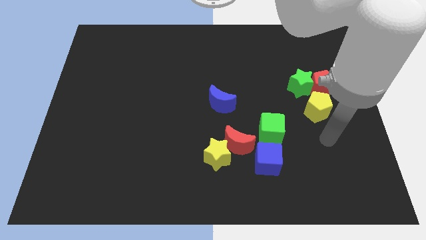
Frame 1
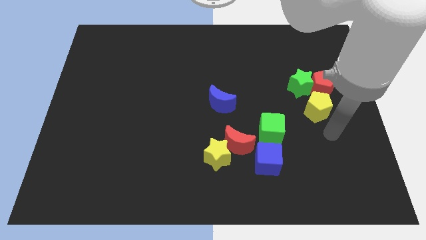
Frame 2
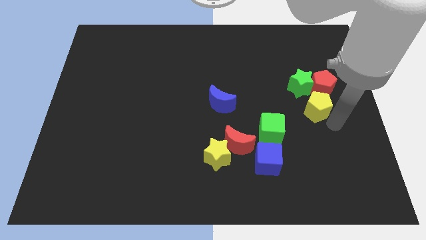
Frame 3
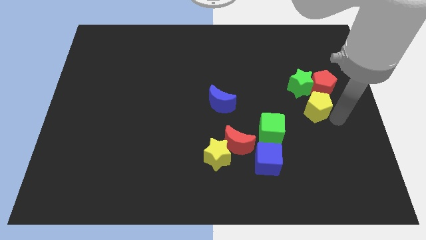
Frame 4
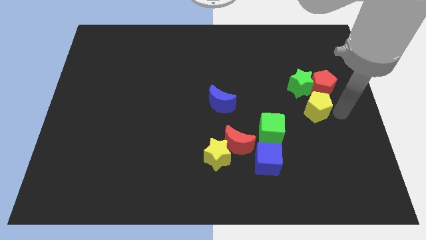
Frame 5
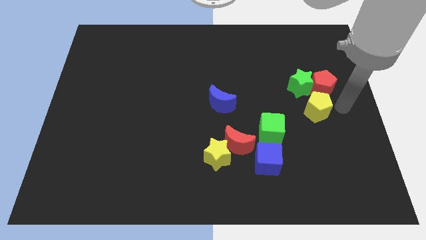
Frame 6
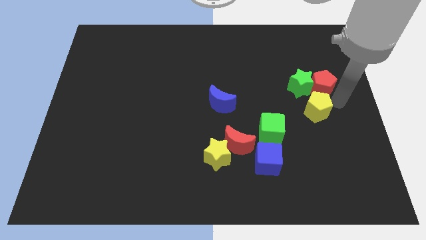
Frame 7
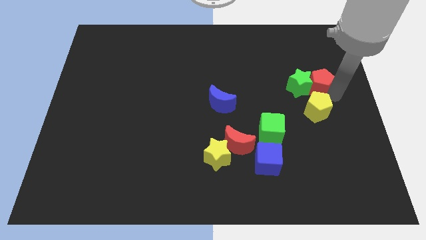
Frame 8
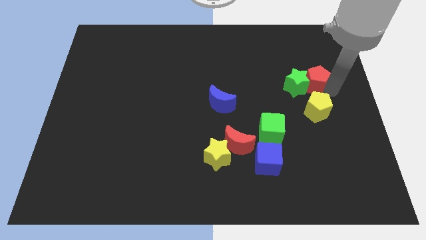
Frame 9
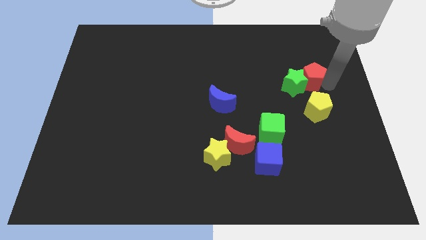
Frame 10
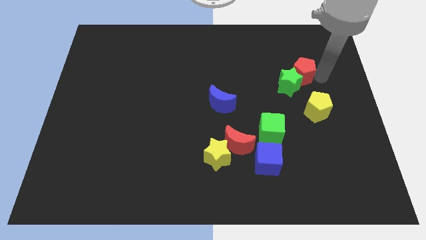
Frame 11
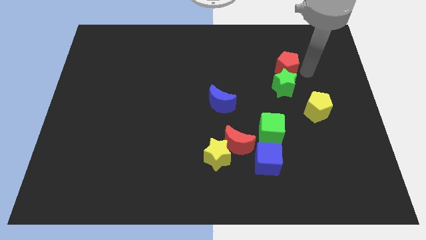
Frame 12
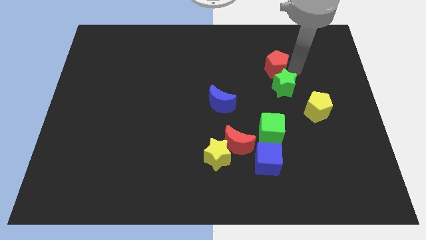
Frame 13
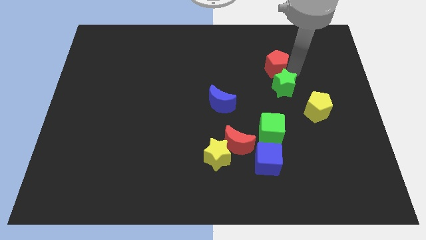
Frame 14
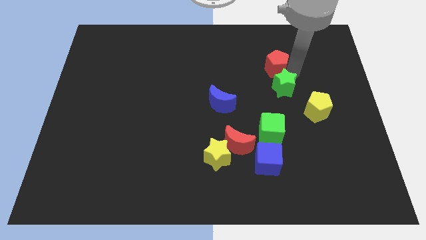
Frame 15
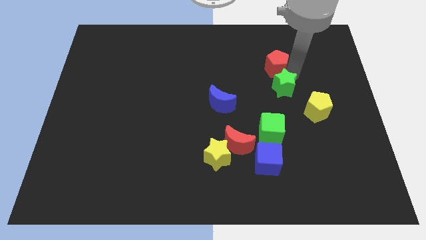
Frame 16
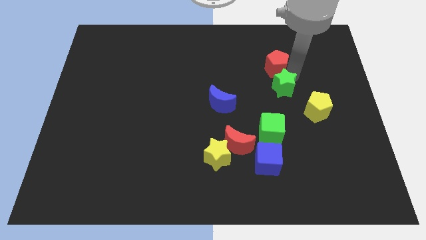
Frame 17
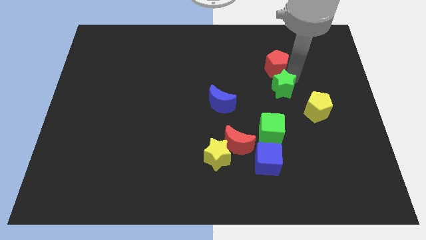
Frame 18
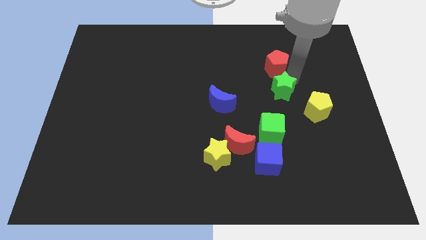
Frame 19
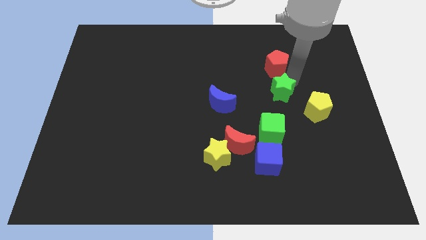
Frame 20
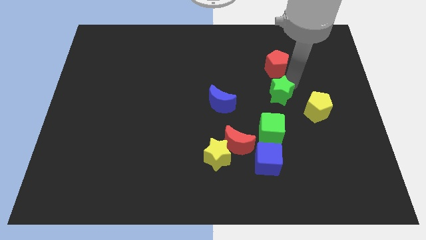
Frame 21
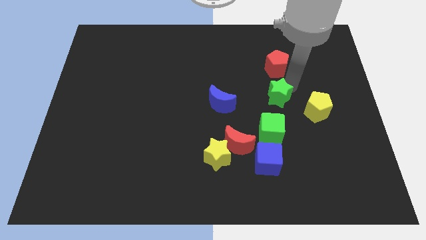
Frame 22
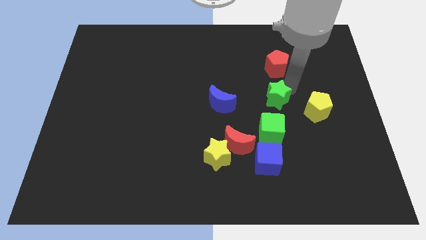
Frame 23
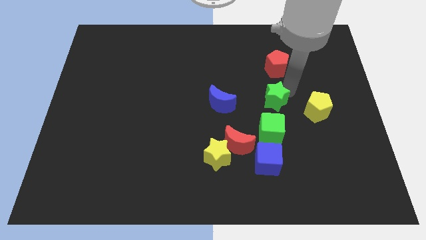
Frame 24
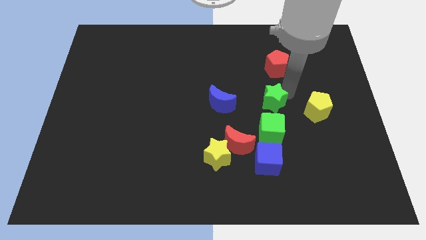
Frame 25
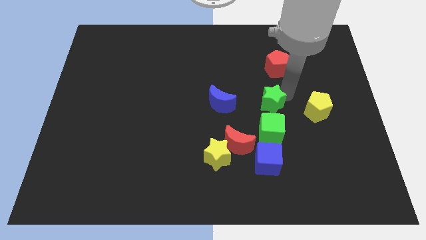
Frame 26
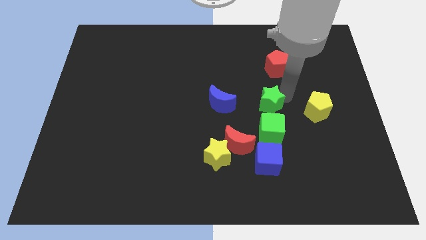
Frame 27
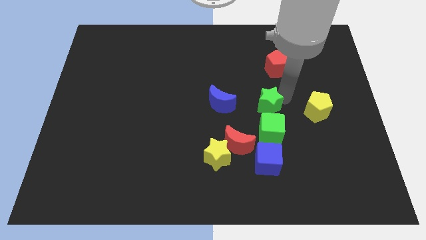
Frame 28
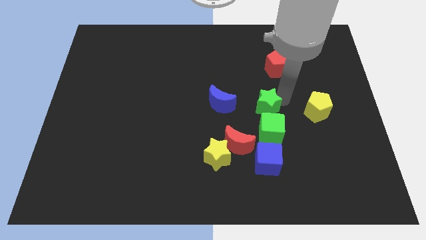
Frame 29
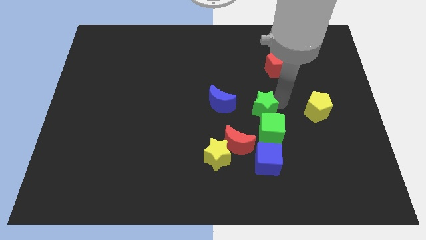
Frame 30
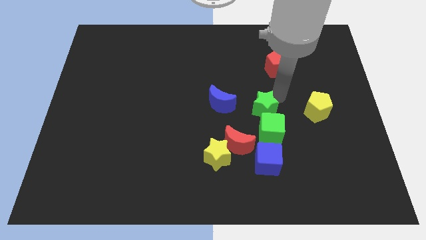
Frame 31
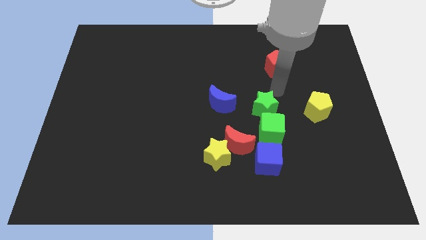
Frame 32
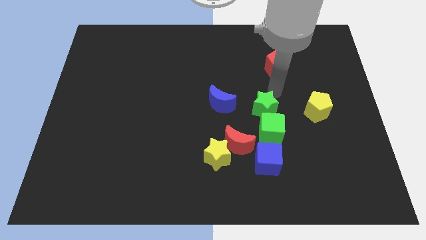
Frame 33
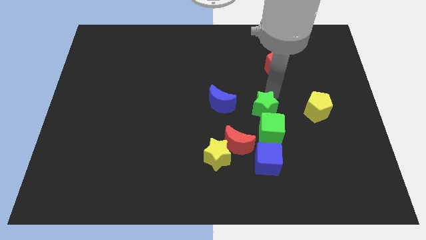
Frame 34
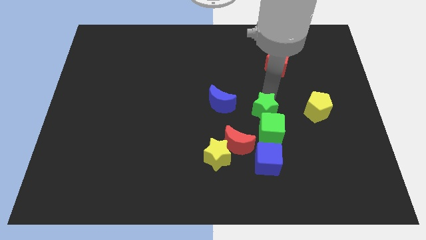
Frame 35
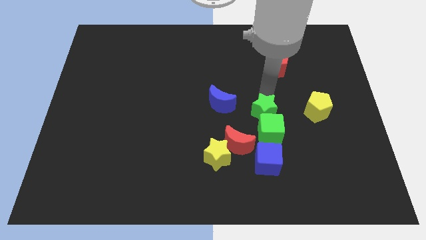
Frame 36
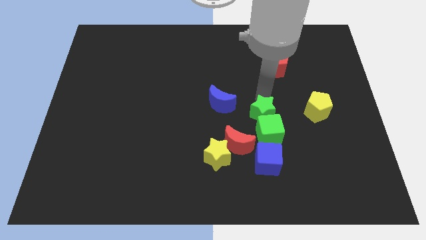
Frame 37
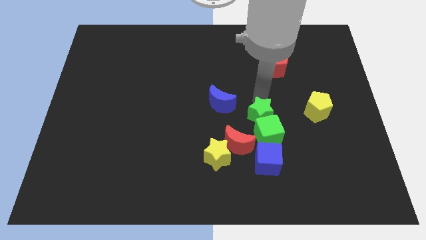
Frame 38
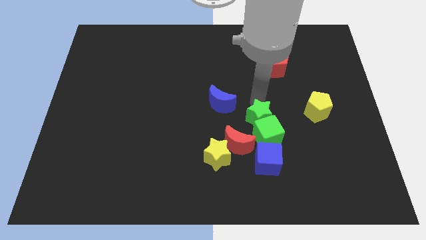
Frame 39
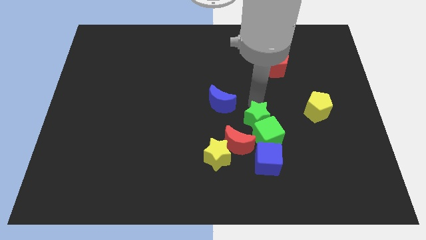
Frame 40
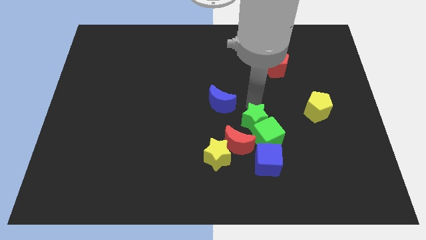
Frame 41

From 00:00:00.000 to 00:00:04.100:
push the green star diagonally up and to the right of the yellow star

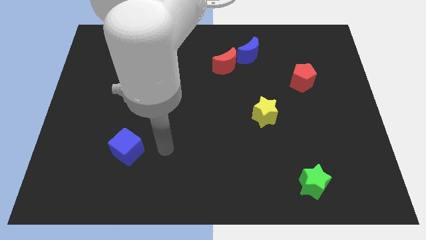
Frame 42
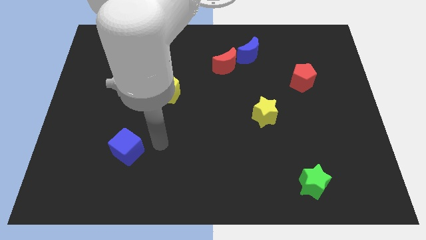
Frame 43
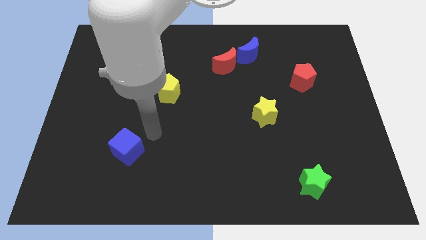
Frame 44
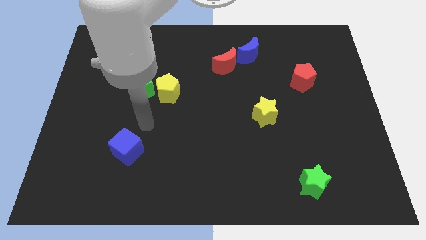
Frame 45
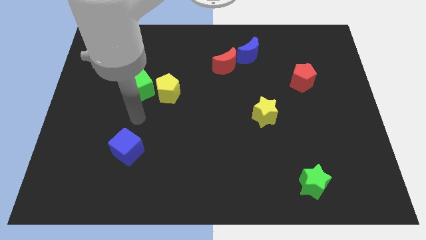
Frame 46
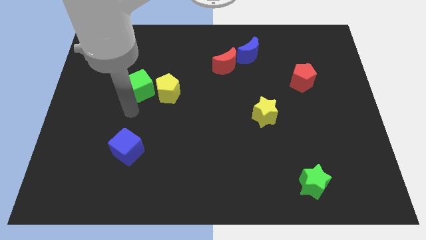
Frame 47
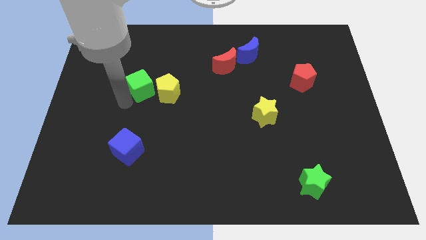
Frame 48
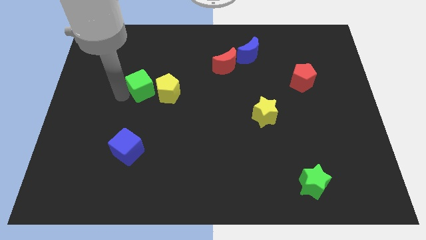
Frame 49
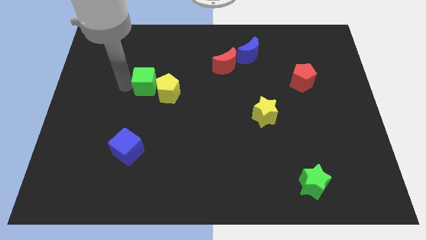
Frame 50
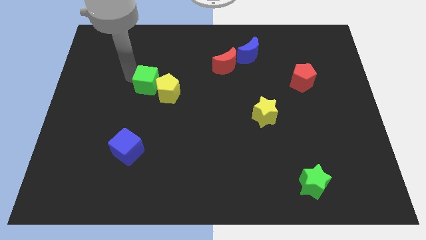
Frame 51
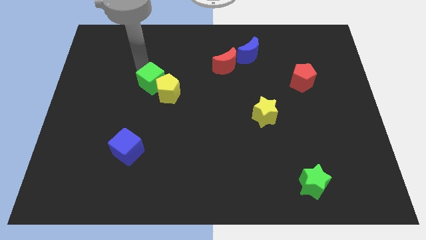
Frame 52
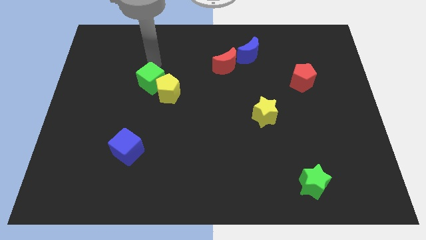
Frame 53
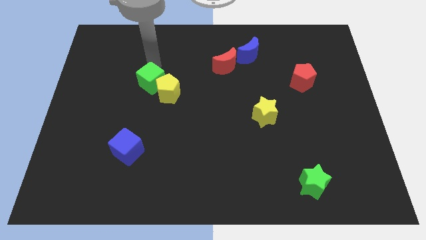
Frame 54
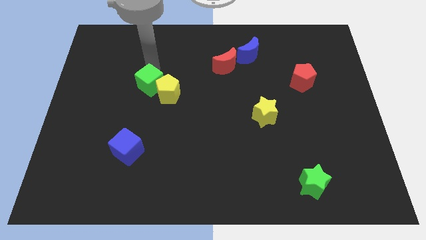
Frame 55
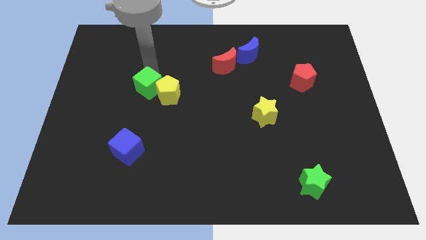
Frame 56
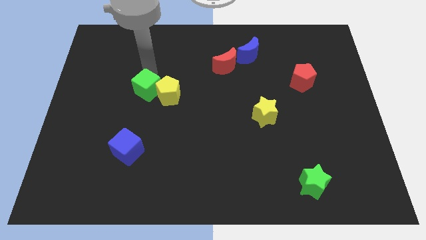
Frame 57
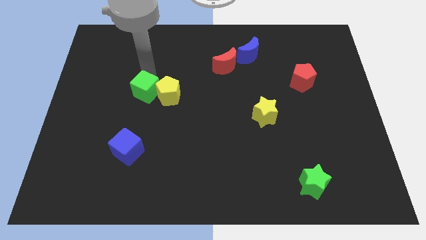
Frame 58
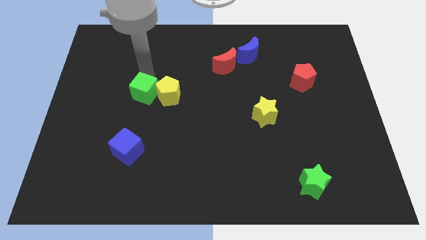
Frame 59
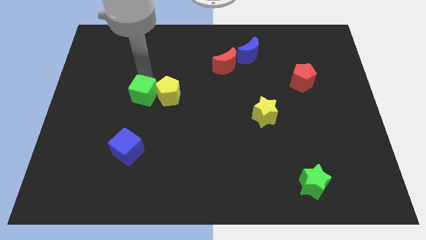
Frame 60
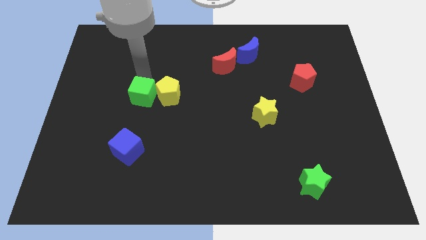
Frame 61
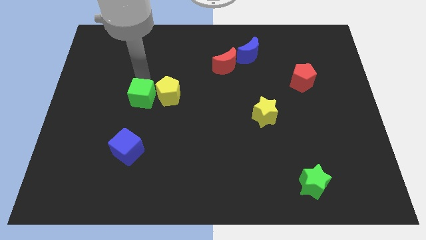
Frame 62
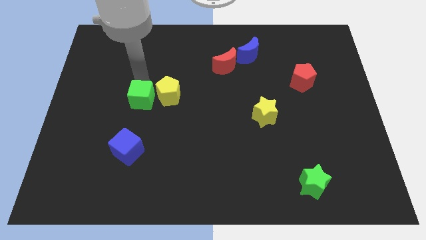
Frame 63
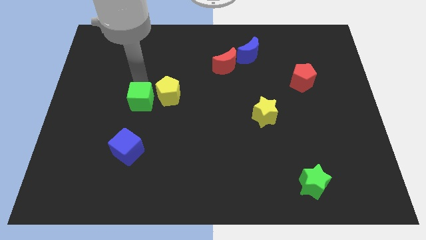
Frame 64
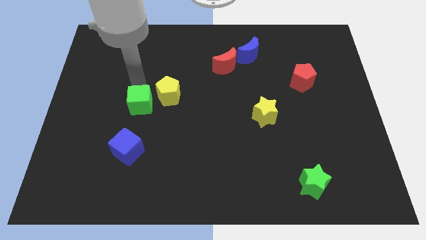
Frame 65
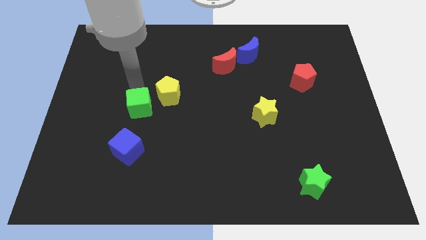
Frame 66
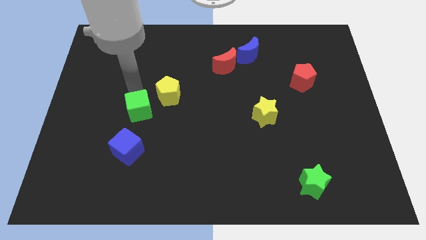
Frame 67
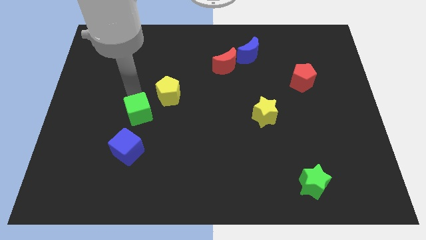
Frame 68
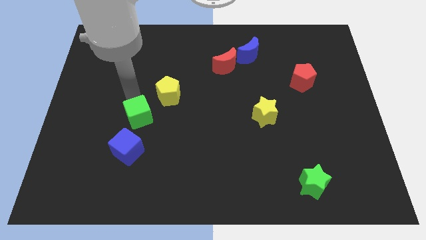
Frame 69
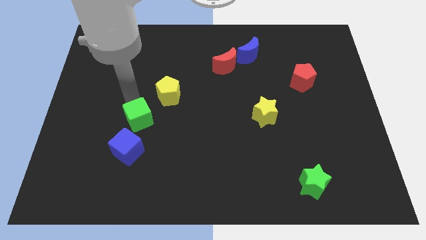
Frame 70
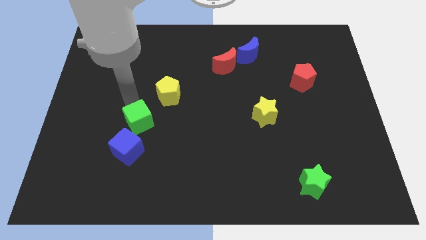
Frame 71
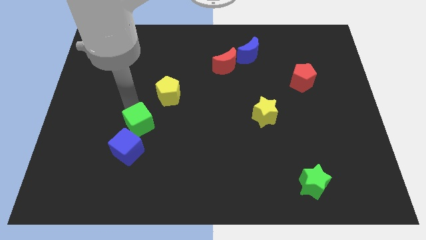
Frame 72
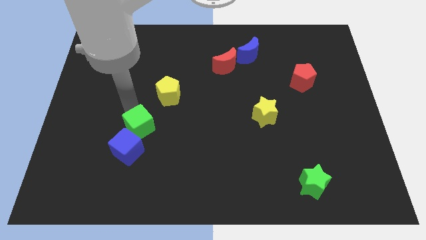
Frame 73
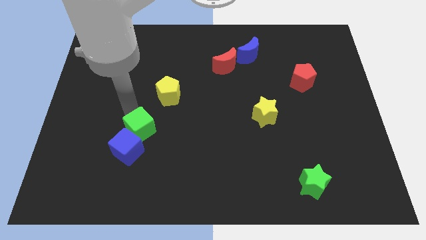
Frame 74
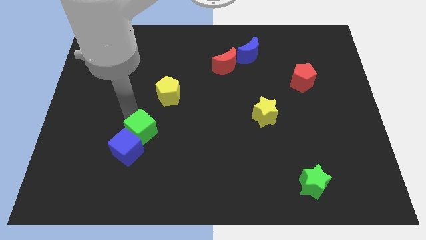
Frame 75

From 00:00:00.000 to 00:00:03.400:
put the green cube below the yellow pentagon
